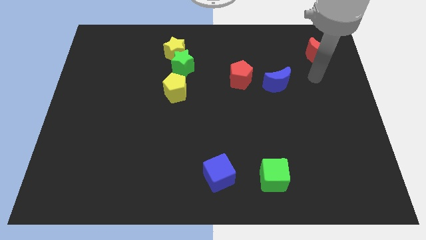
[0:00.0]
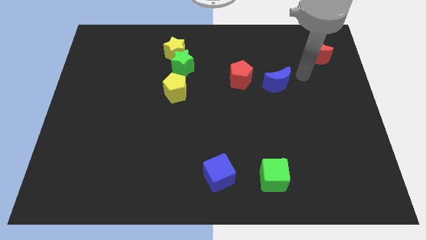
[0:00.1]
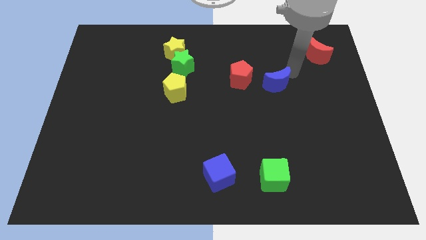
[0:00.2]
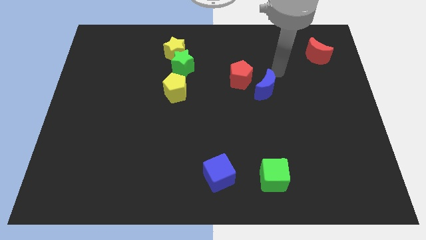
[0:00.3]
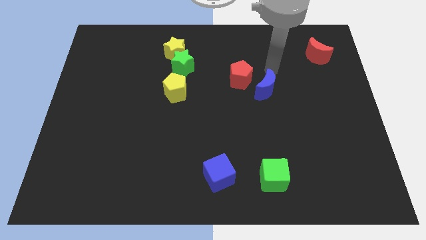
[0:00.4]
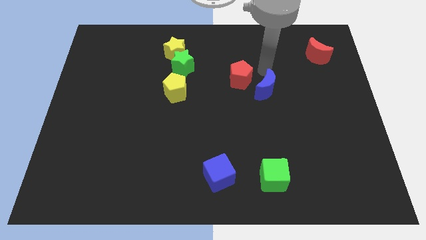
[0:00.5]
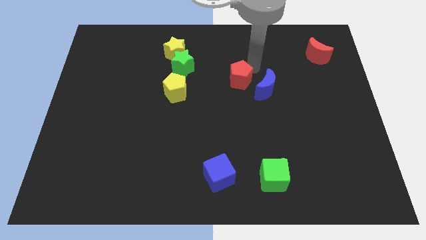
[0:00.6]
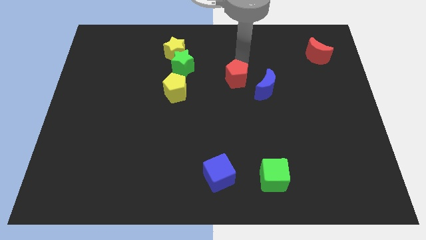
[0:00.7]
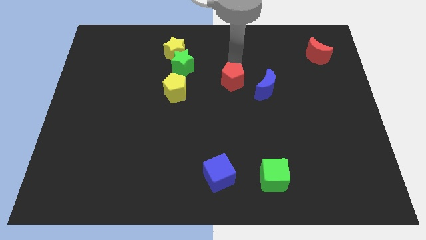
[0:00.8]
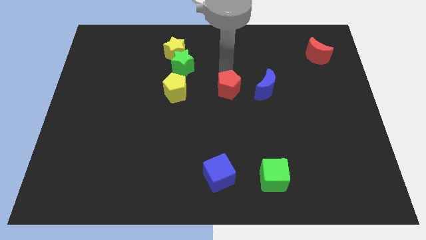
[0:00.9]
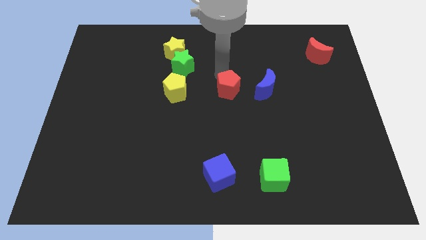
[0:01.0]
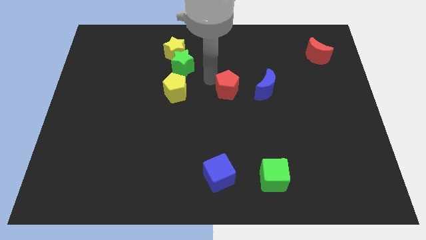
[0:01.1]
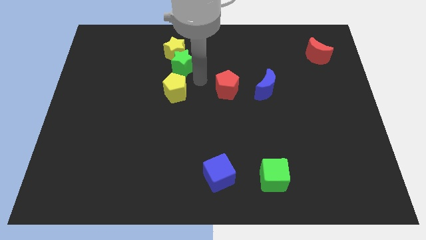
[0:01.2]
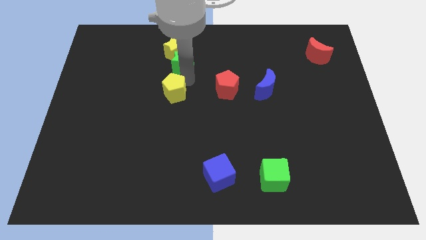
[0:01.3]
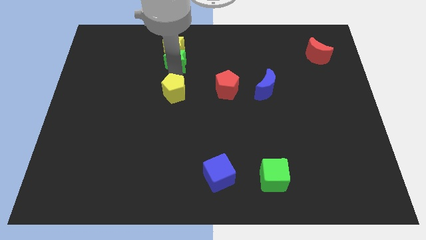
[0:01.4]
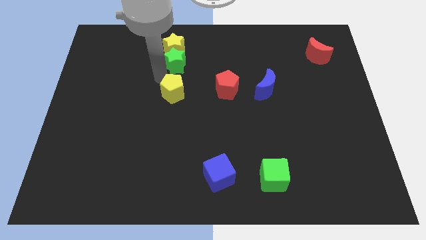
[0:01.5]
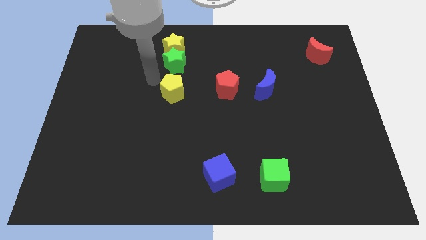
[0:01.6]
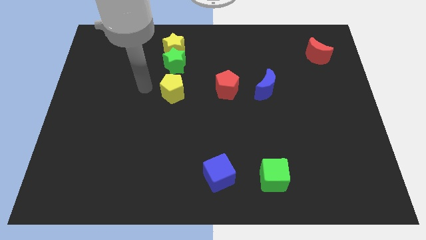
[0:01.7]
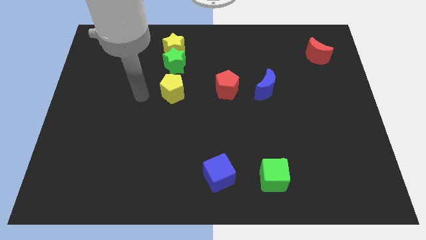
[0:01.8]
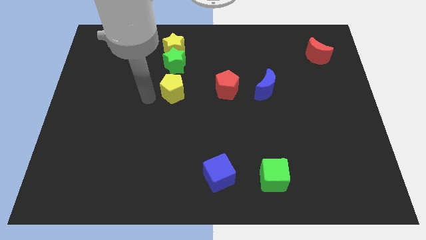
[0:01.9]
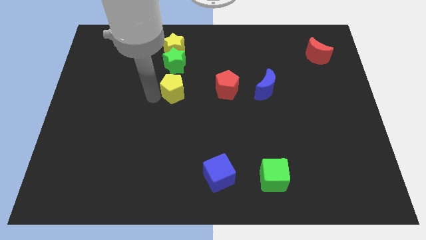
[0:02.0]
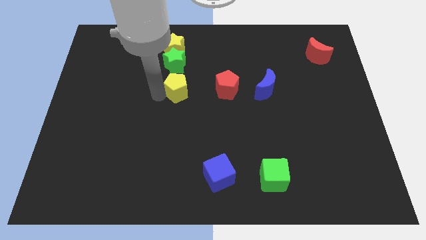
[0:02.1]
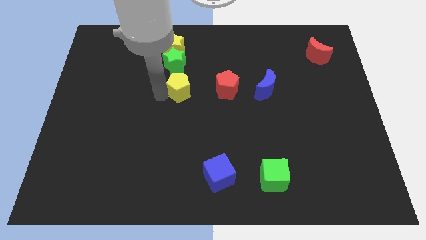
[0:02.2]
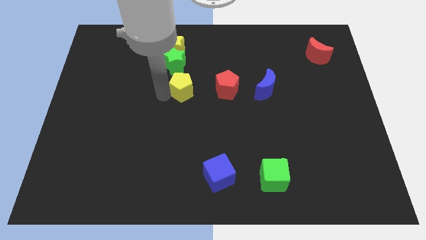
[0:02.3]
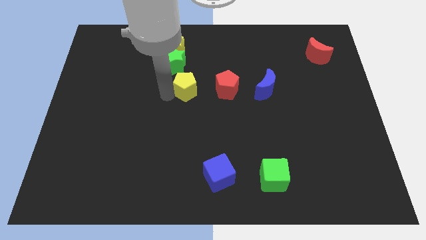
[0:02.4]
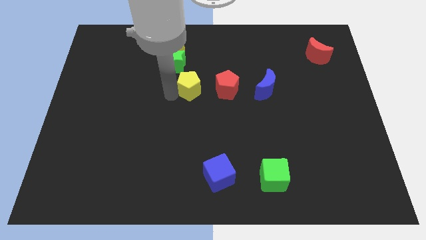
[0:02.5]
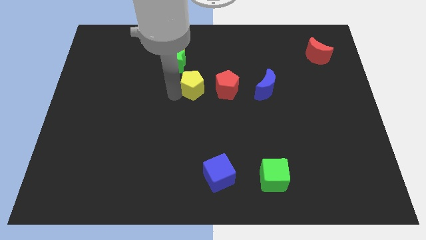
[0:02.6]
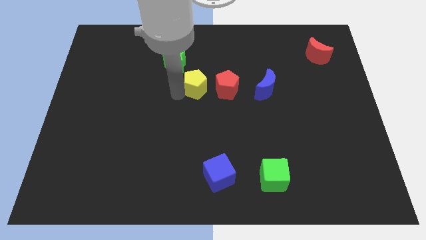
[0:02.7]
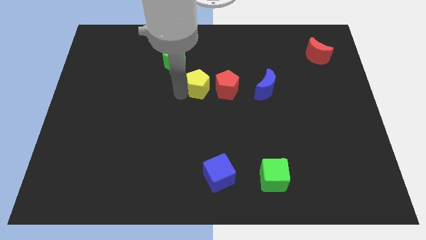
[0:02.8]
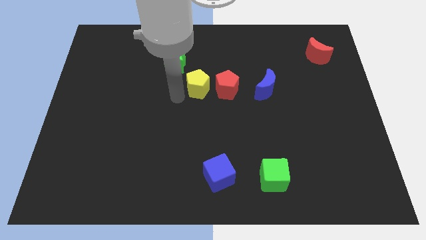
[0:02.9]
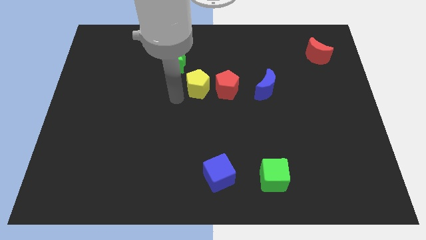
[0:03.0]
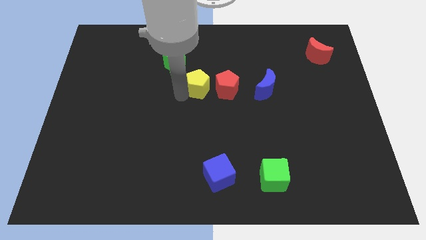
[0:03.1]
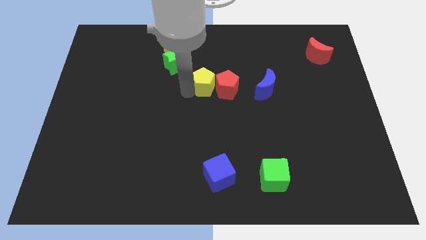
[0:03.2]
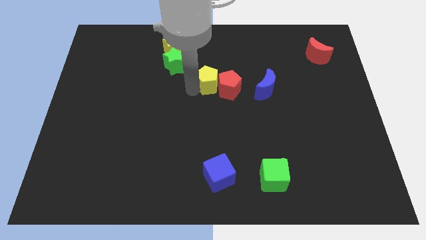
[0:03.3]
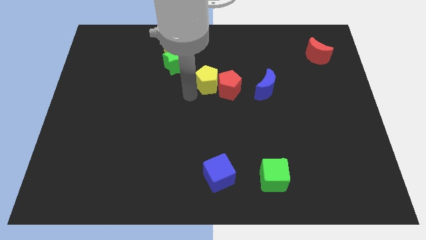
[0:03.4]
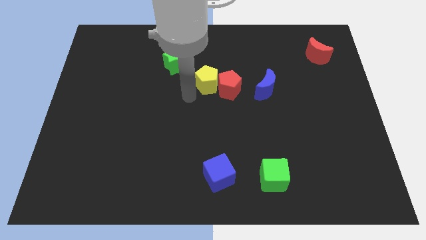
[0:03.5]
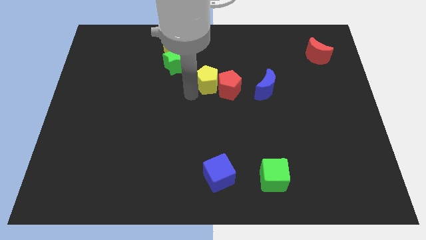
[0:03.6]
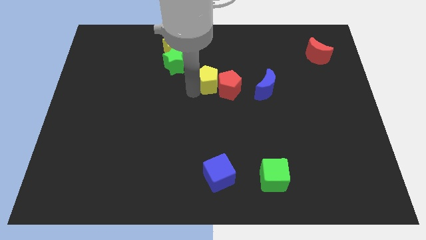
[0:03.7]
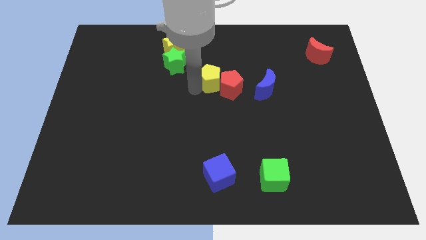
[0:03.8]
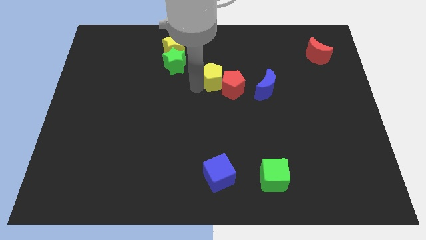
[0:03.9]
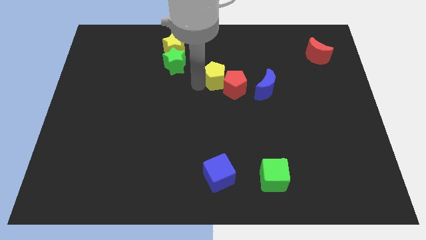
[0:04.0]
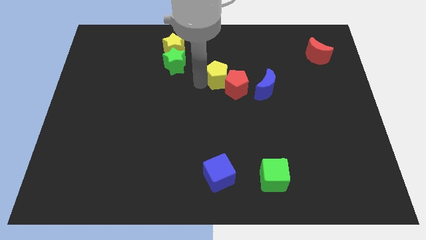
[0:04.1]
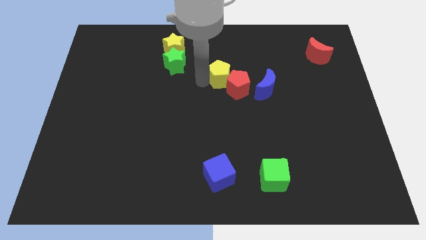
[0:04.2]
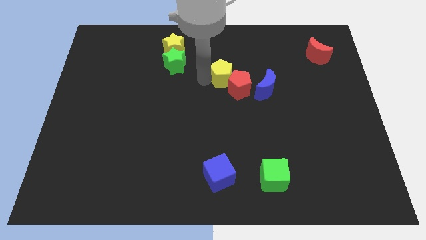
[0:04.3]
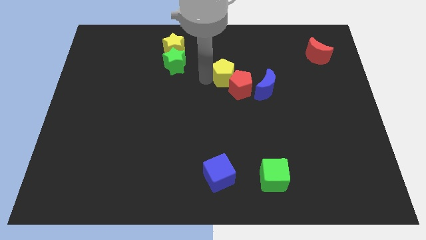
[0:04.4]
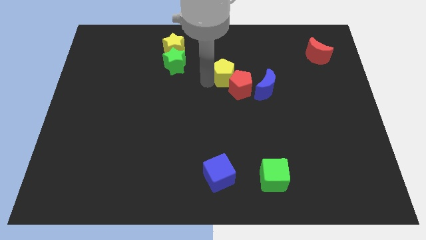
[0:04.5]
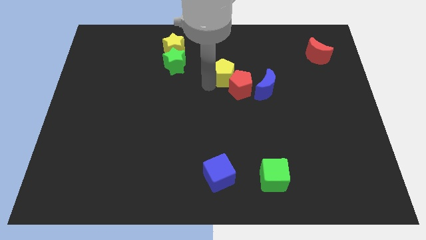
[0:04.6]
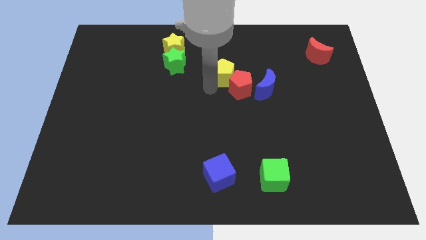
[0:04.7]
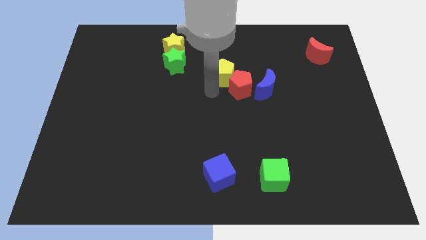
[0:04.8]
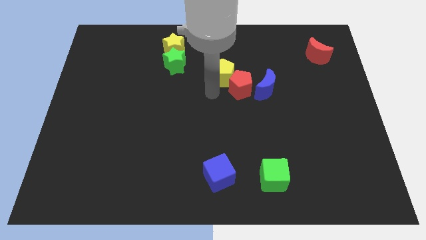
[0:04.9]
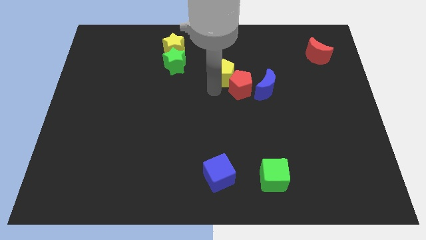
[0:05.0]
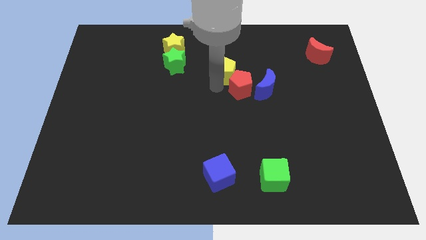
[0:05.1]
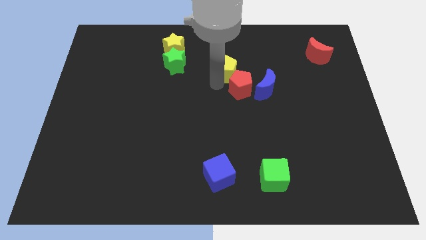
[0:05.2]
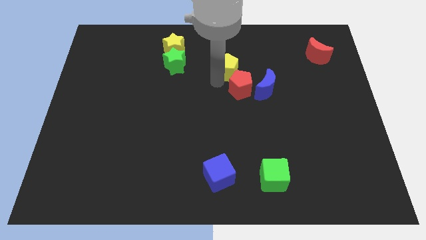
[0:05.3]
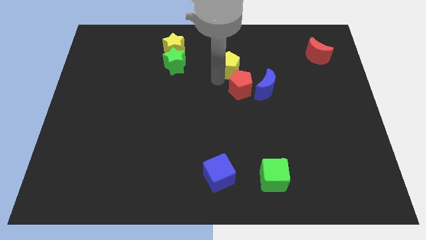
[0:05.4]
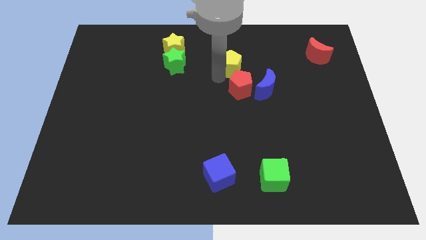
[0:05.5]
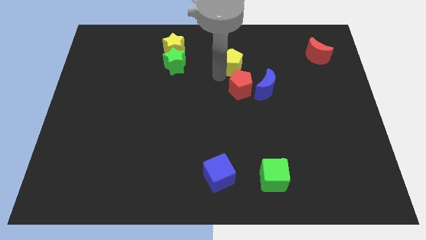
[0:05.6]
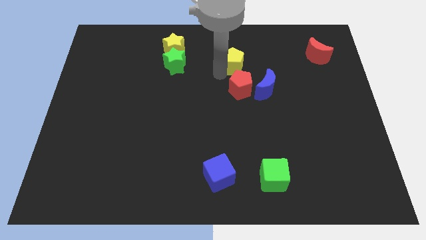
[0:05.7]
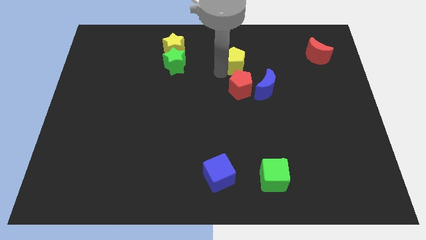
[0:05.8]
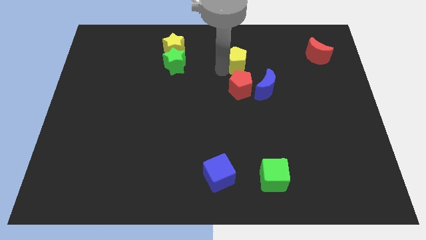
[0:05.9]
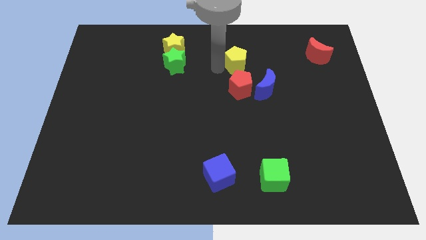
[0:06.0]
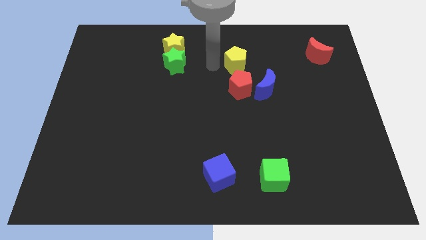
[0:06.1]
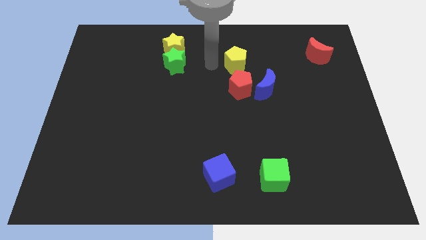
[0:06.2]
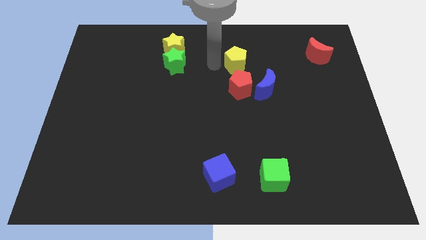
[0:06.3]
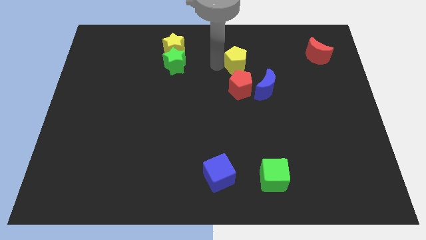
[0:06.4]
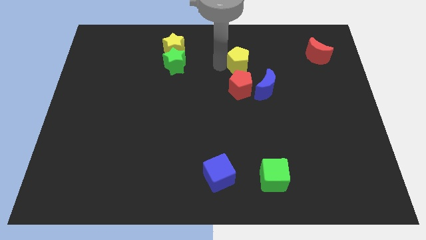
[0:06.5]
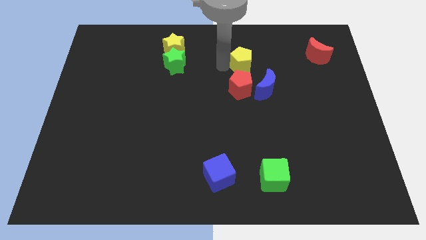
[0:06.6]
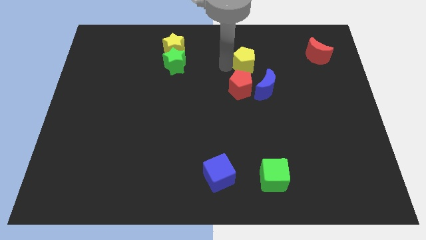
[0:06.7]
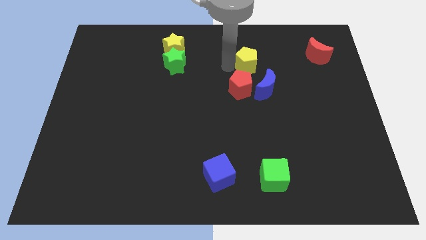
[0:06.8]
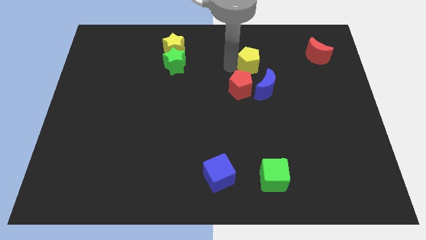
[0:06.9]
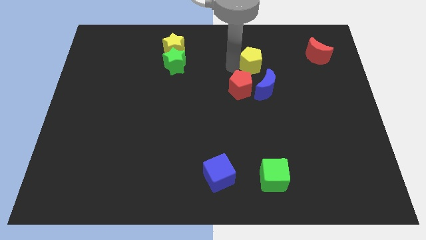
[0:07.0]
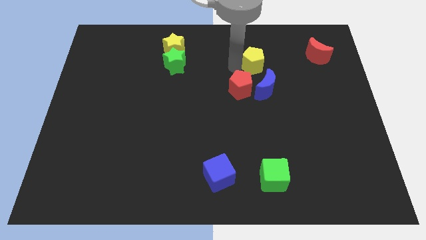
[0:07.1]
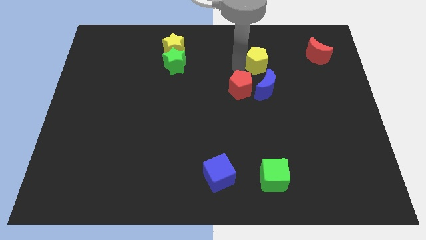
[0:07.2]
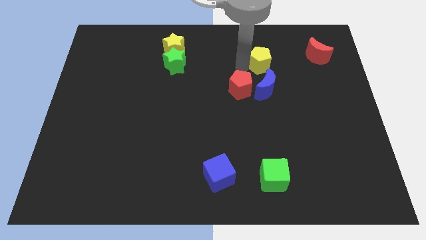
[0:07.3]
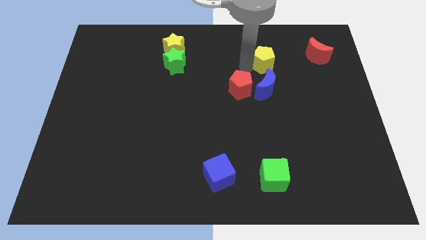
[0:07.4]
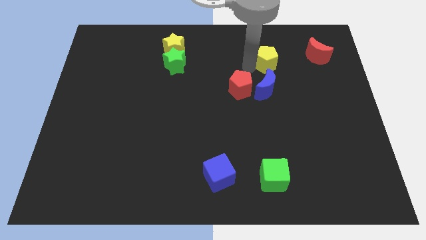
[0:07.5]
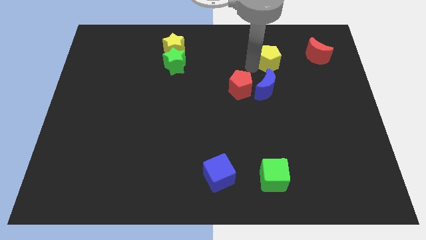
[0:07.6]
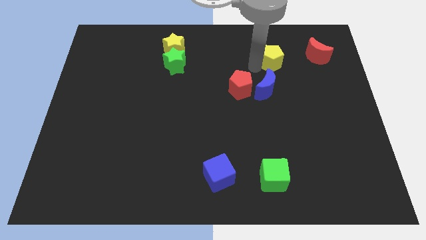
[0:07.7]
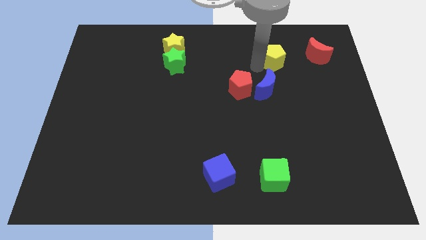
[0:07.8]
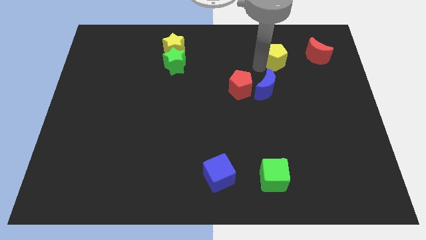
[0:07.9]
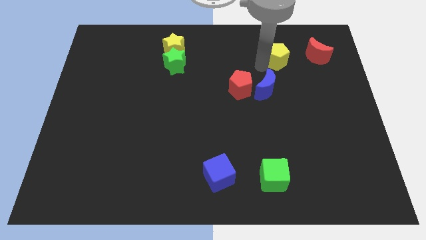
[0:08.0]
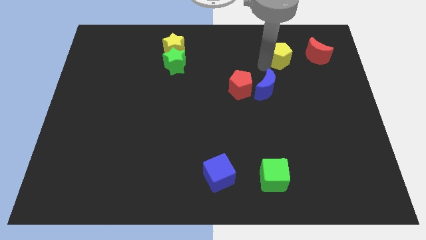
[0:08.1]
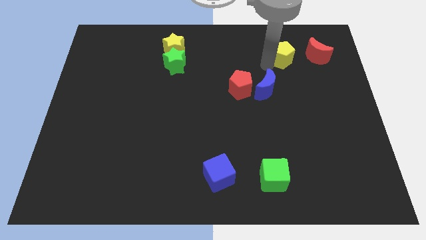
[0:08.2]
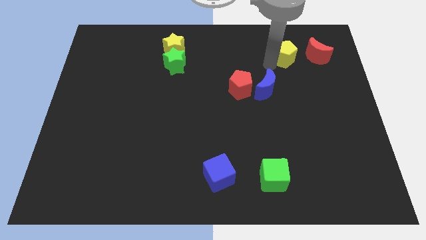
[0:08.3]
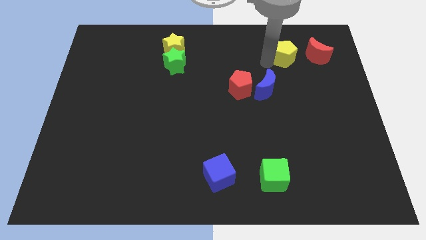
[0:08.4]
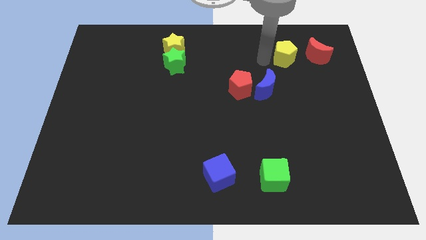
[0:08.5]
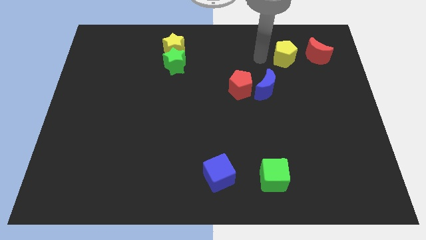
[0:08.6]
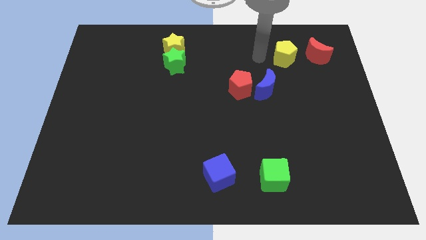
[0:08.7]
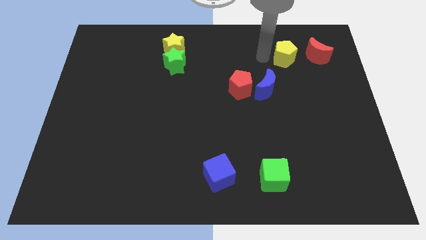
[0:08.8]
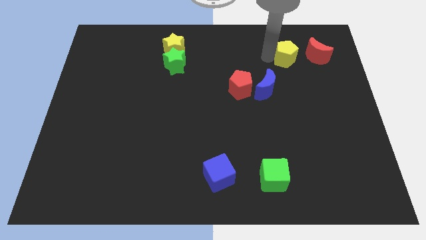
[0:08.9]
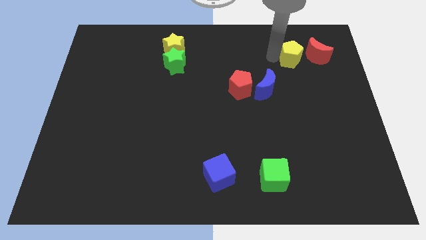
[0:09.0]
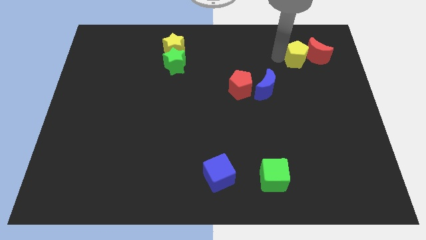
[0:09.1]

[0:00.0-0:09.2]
move the yellow pentagon to the red moon
